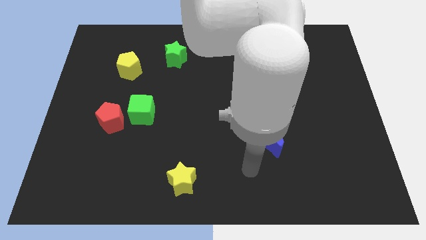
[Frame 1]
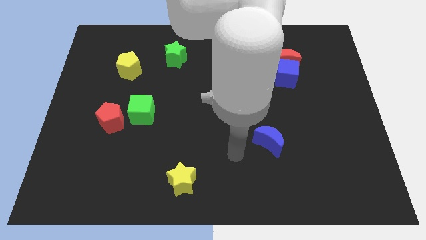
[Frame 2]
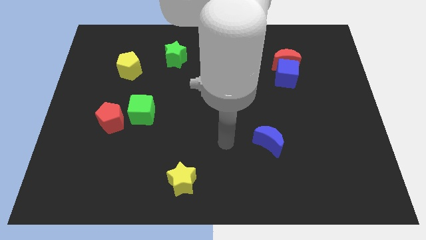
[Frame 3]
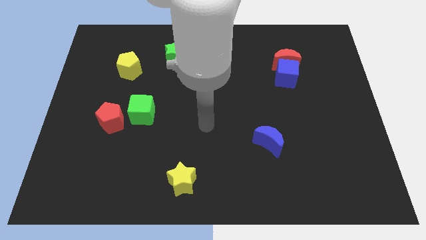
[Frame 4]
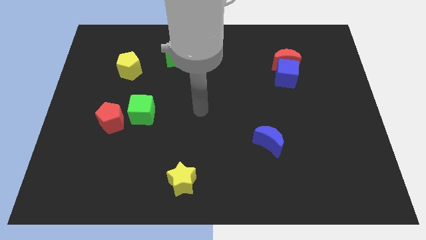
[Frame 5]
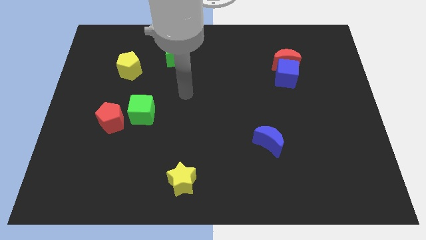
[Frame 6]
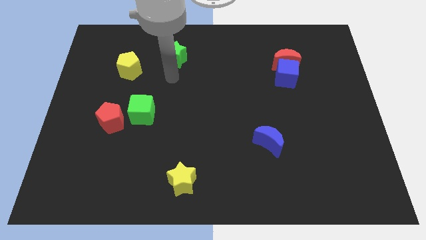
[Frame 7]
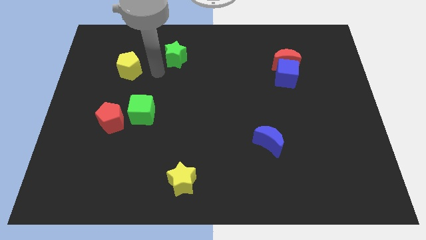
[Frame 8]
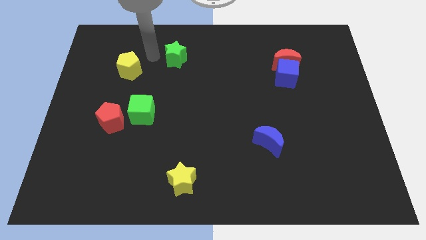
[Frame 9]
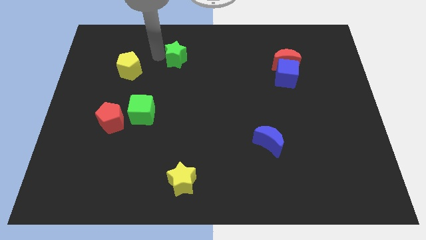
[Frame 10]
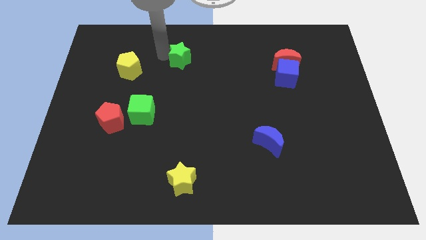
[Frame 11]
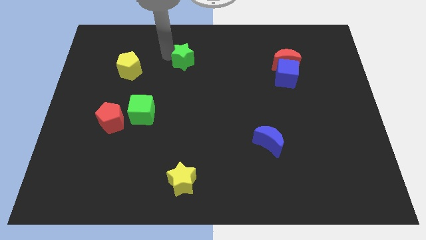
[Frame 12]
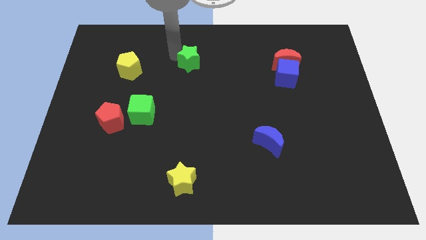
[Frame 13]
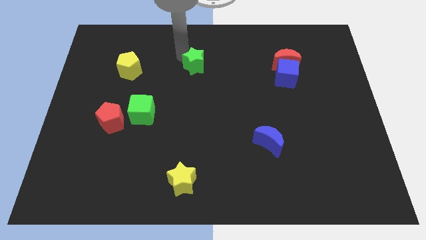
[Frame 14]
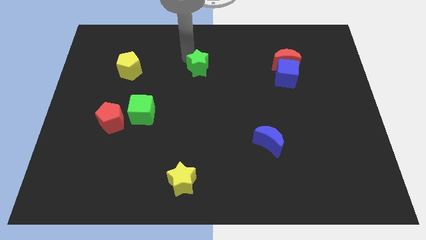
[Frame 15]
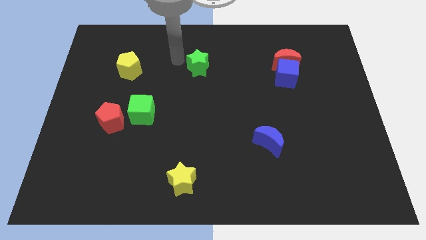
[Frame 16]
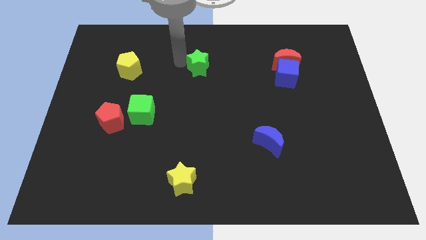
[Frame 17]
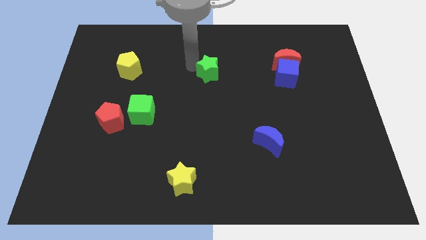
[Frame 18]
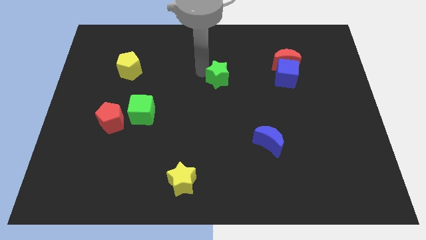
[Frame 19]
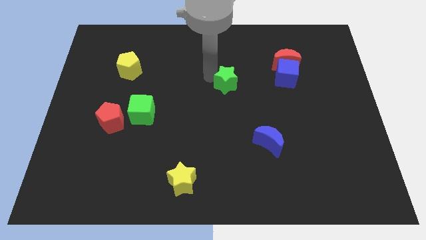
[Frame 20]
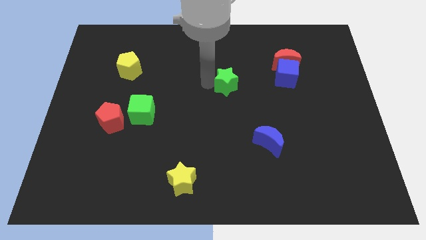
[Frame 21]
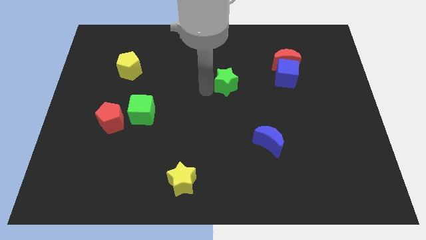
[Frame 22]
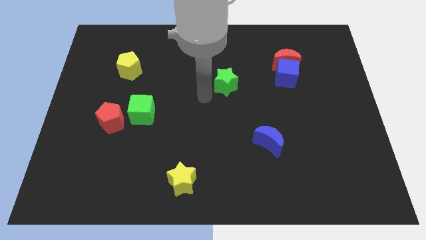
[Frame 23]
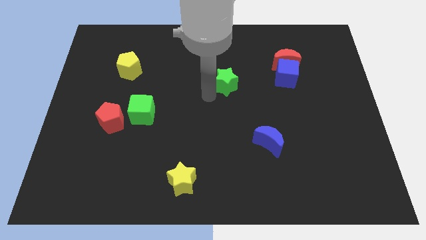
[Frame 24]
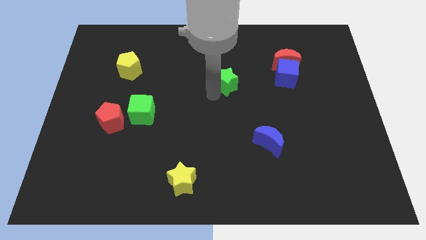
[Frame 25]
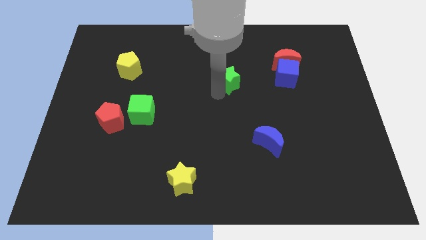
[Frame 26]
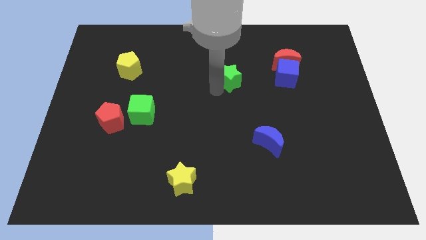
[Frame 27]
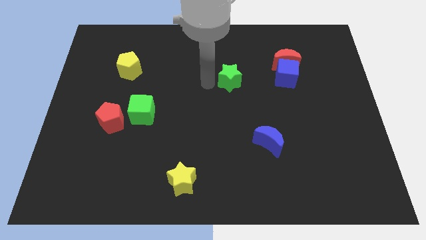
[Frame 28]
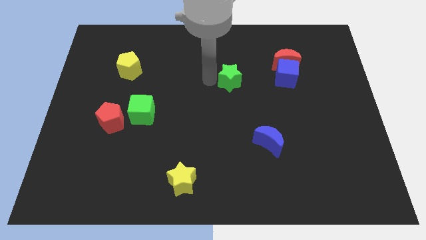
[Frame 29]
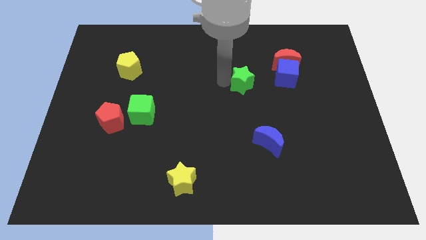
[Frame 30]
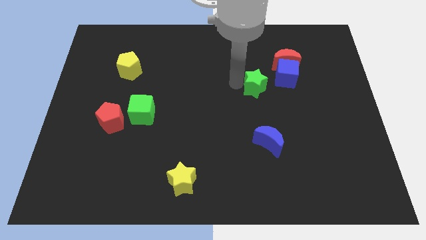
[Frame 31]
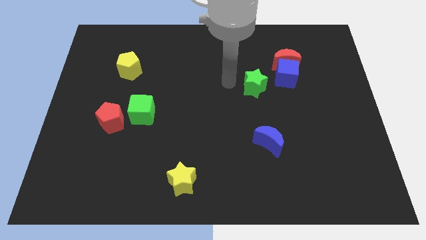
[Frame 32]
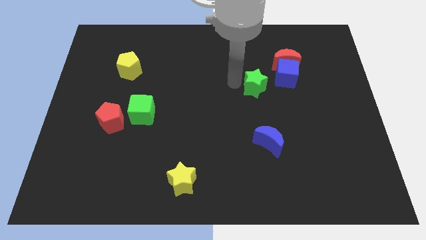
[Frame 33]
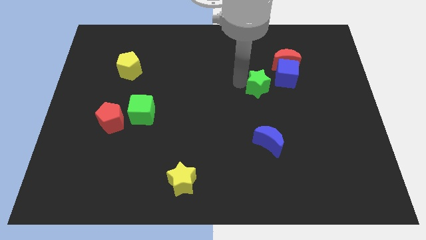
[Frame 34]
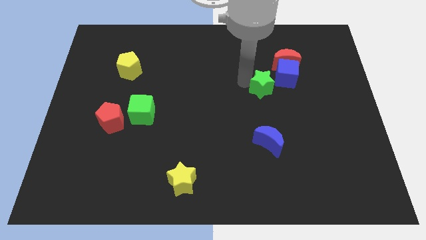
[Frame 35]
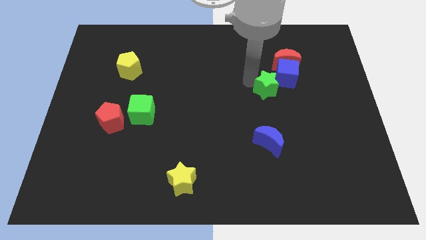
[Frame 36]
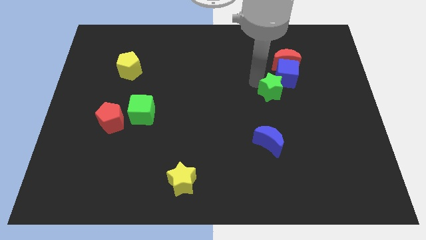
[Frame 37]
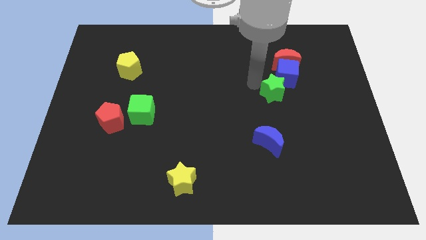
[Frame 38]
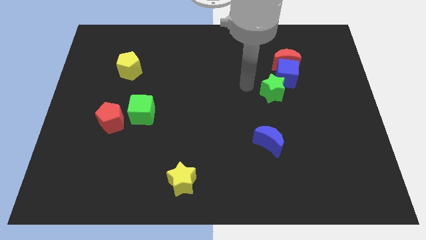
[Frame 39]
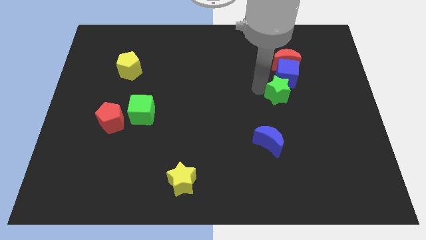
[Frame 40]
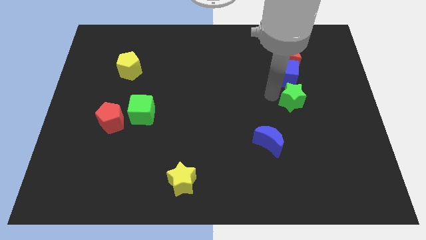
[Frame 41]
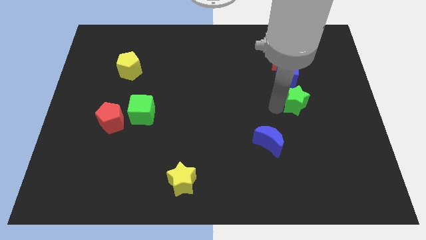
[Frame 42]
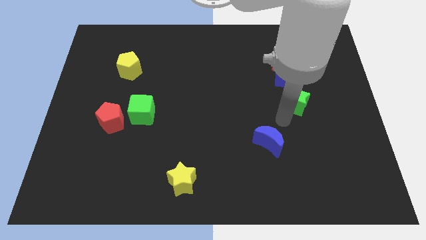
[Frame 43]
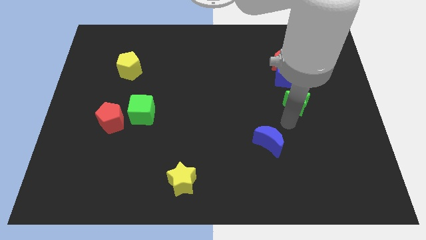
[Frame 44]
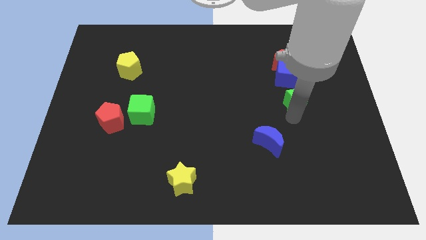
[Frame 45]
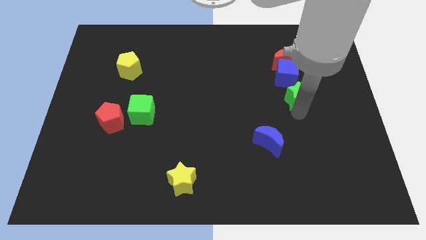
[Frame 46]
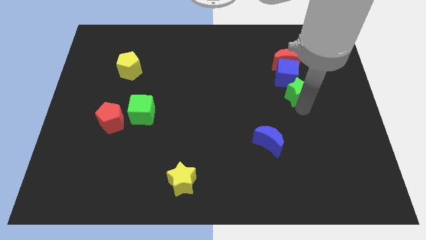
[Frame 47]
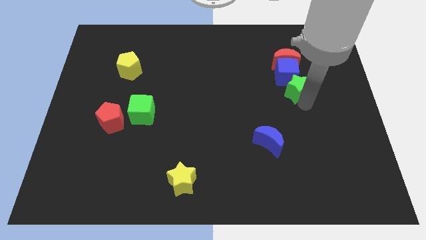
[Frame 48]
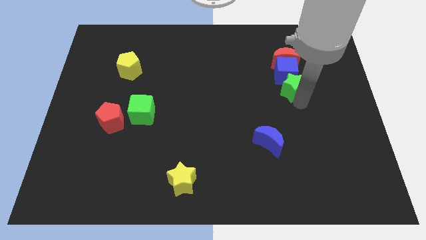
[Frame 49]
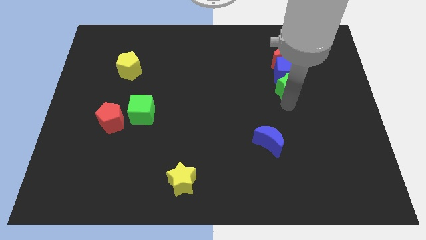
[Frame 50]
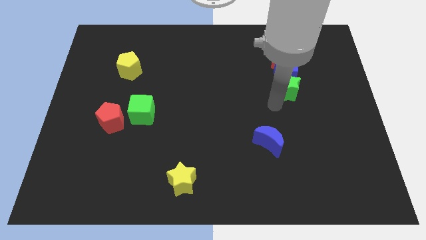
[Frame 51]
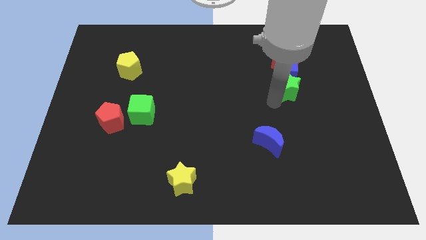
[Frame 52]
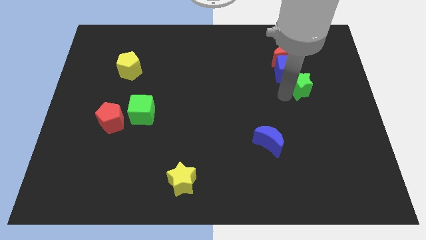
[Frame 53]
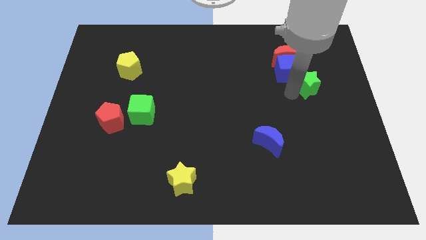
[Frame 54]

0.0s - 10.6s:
move the green star to the bottom right of the red moon

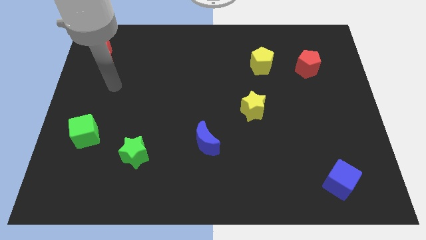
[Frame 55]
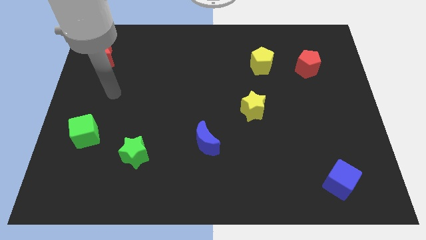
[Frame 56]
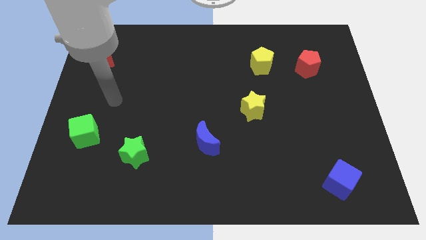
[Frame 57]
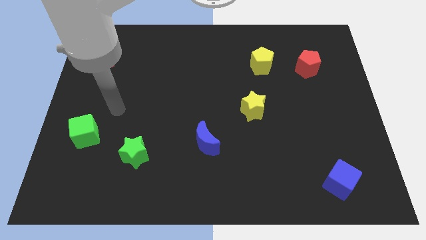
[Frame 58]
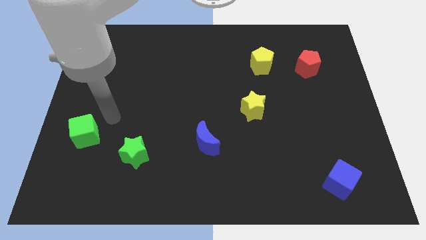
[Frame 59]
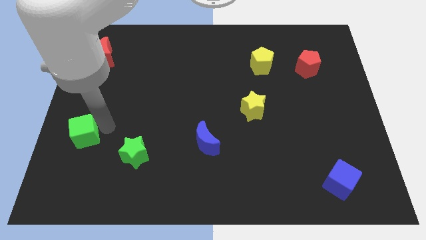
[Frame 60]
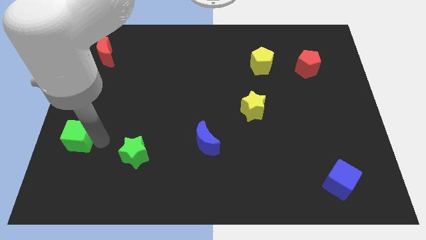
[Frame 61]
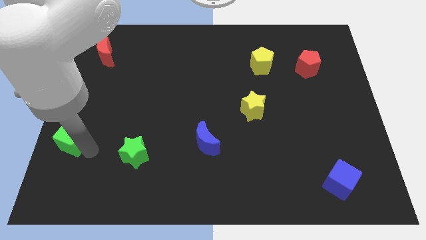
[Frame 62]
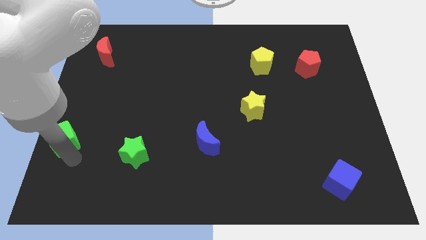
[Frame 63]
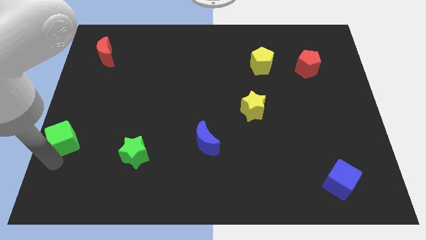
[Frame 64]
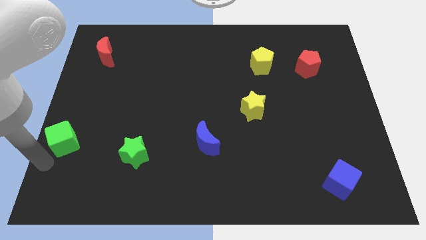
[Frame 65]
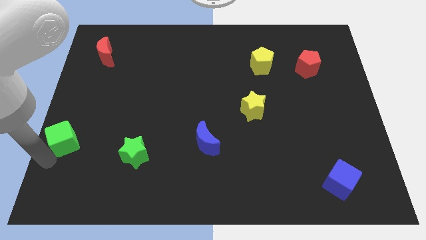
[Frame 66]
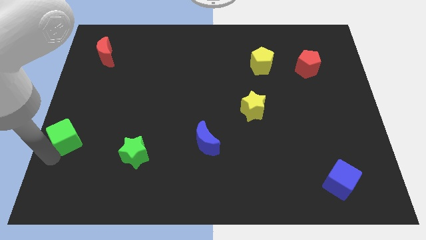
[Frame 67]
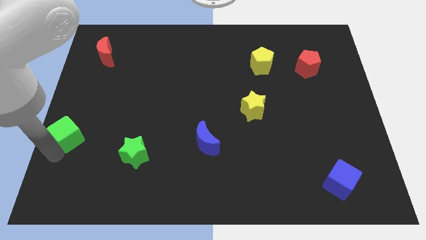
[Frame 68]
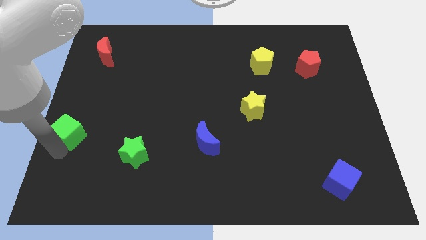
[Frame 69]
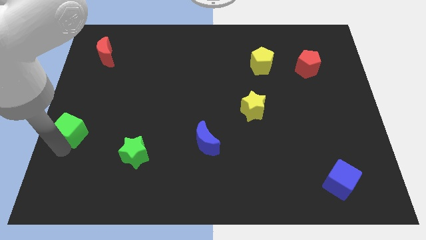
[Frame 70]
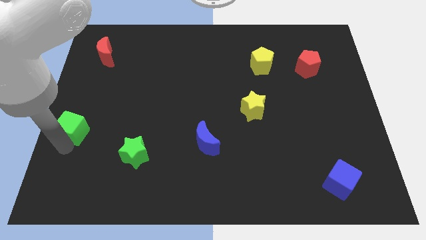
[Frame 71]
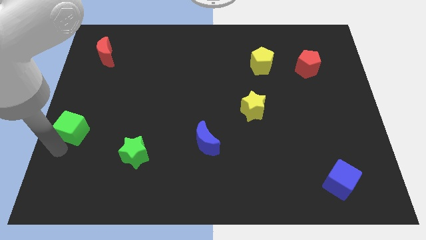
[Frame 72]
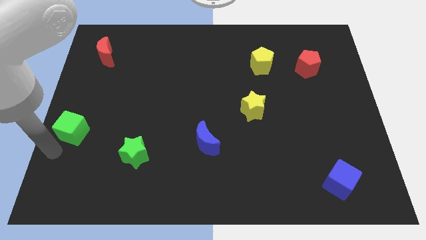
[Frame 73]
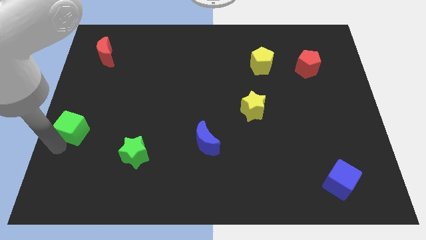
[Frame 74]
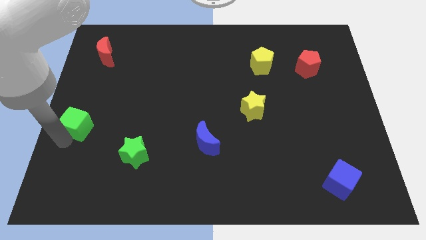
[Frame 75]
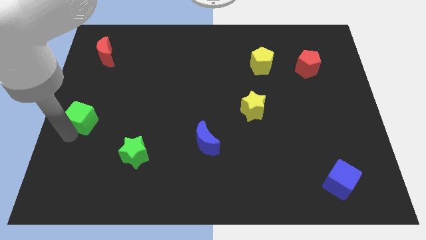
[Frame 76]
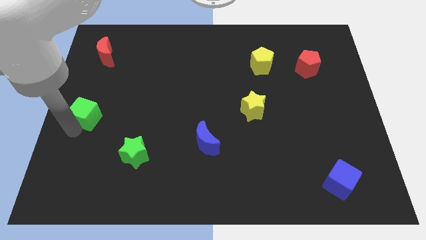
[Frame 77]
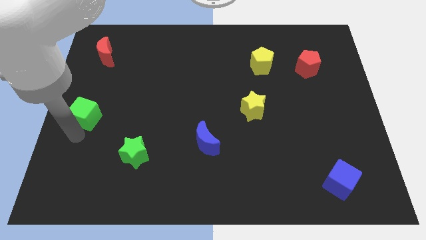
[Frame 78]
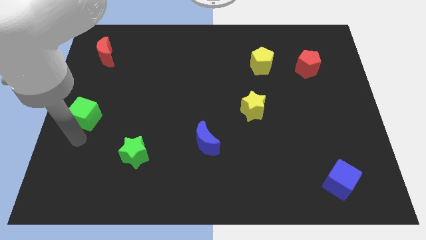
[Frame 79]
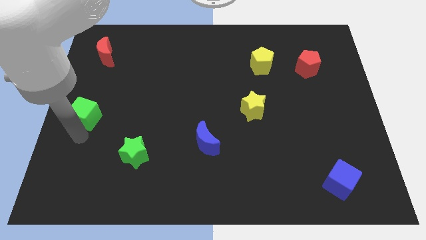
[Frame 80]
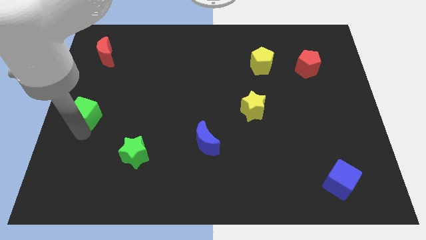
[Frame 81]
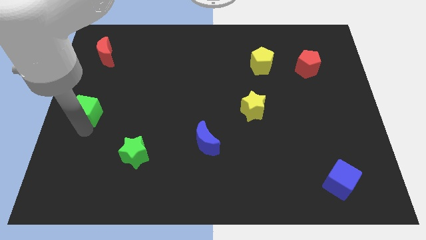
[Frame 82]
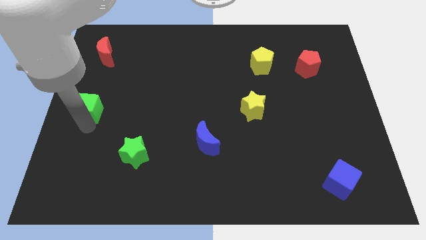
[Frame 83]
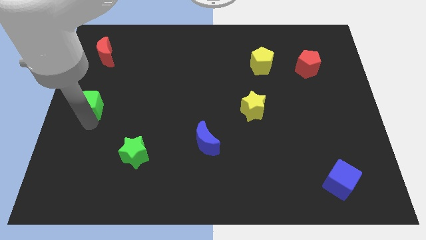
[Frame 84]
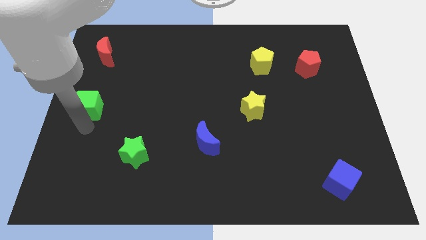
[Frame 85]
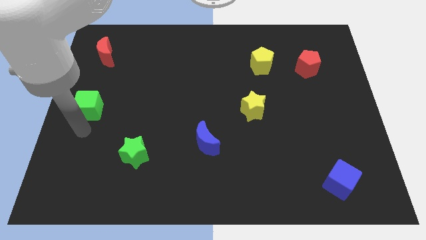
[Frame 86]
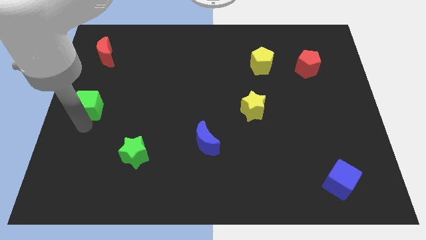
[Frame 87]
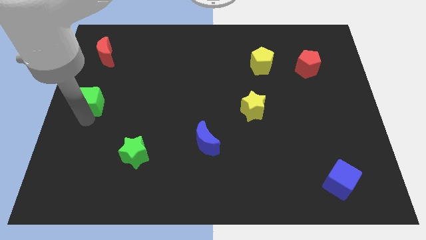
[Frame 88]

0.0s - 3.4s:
move the green cube below the red moon
